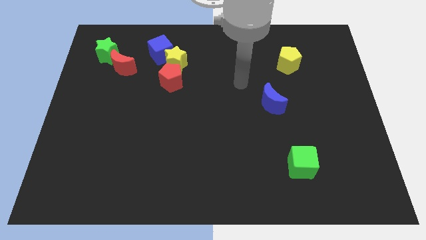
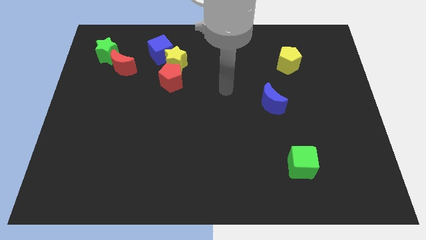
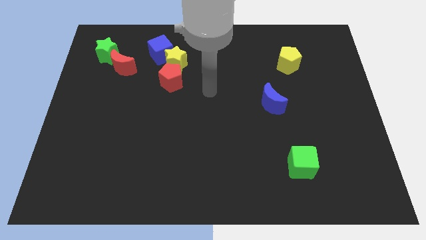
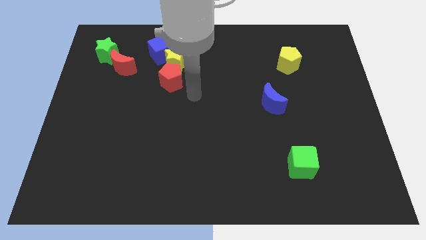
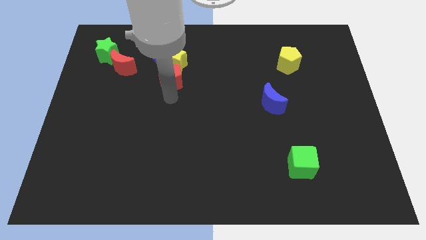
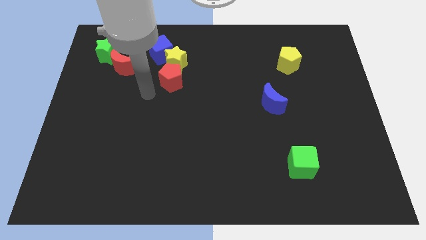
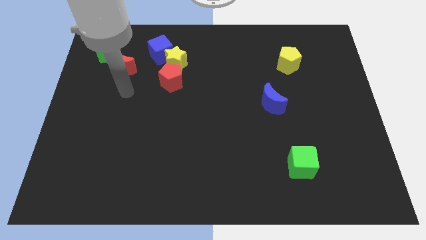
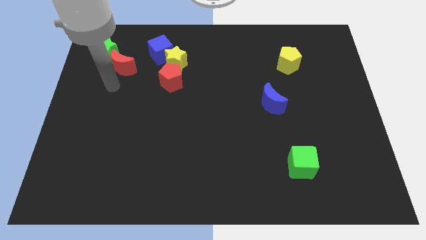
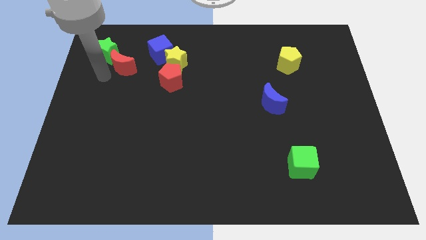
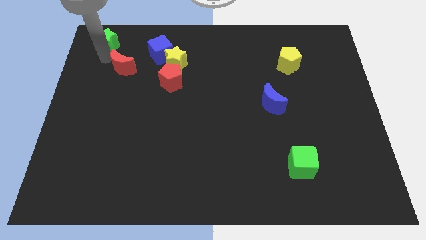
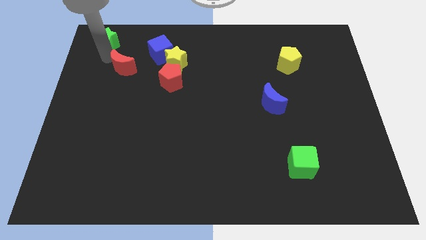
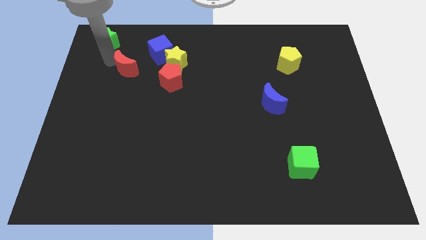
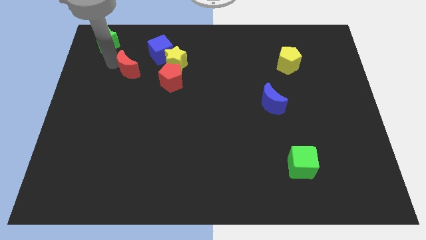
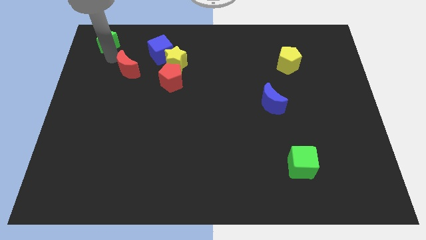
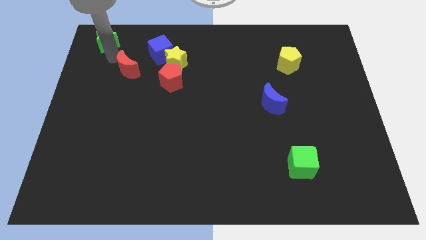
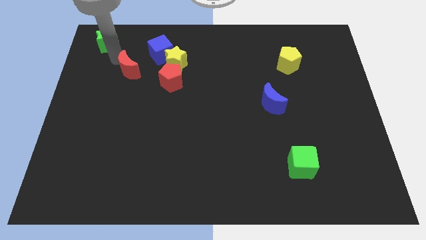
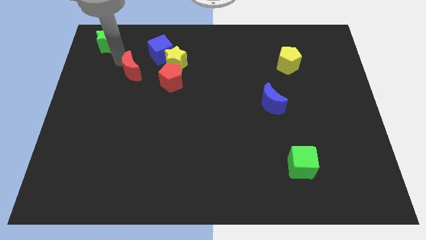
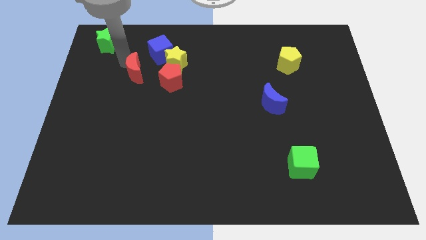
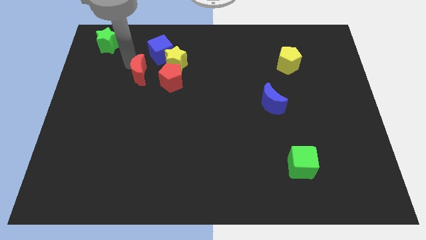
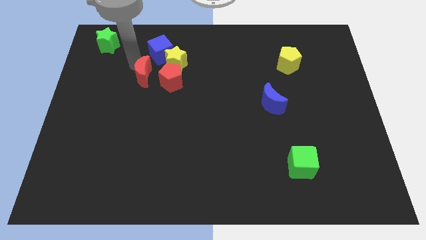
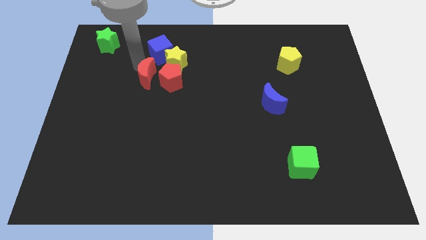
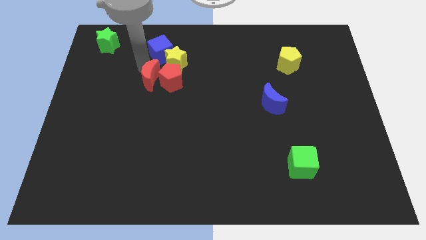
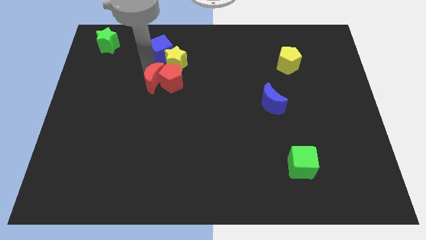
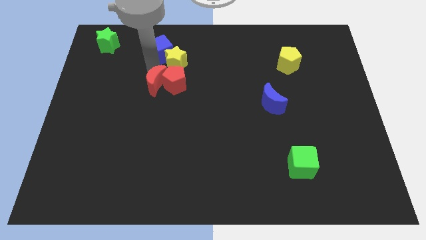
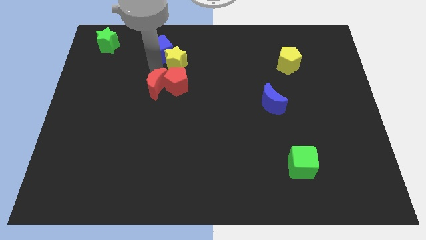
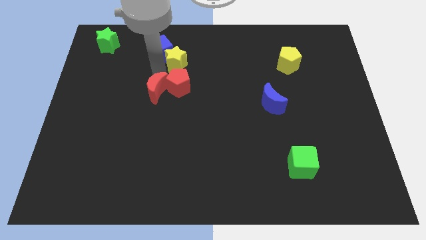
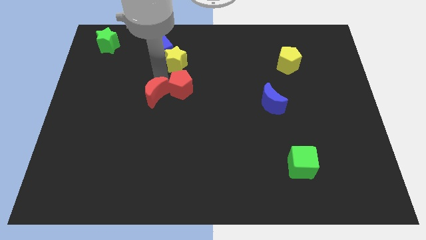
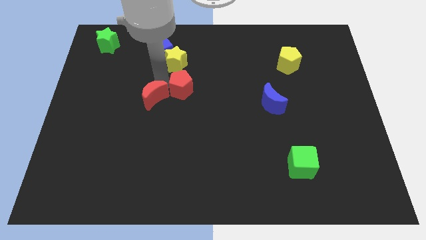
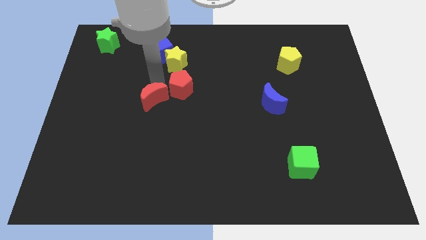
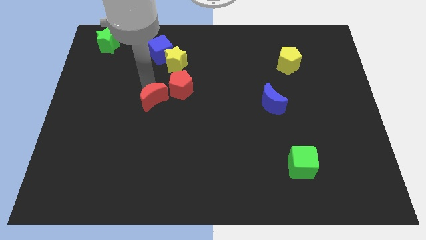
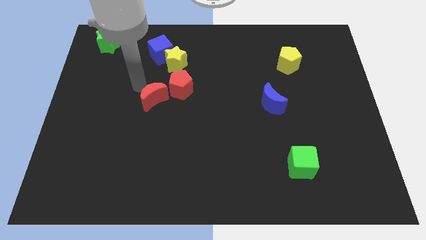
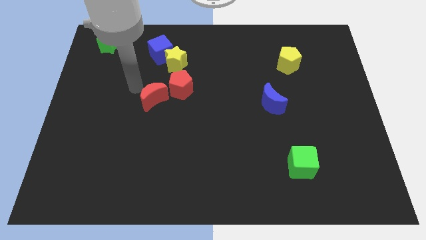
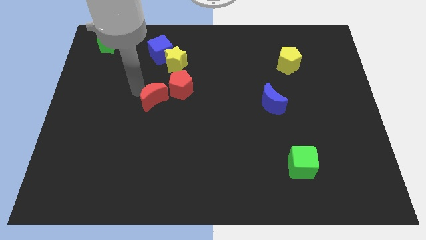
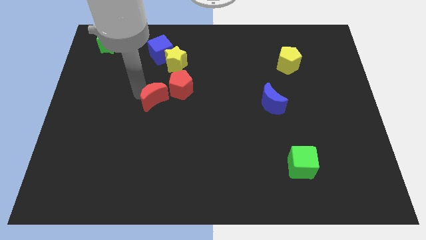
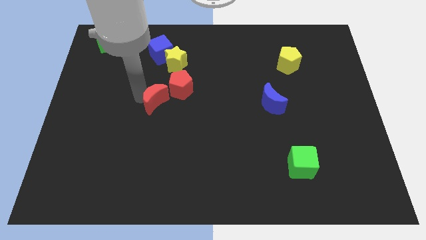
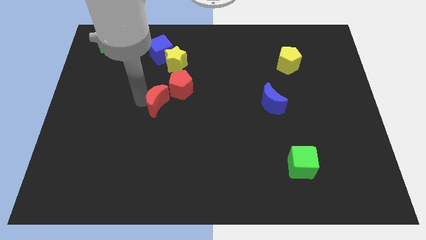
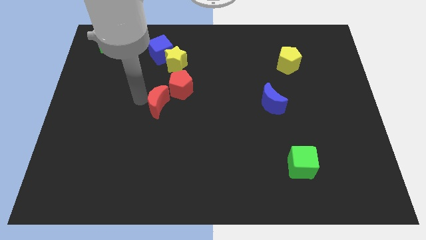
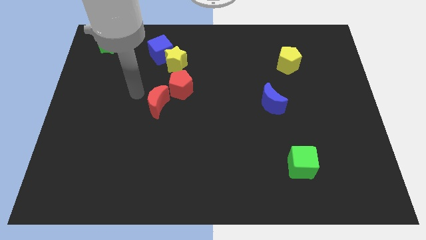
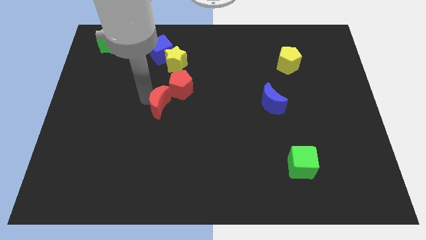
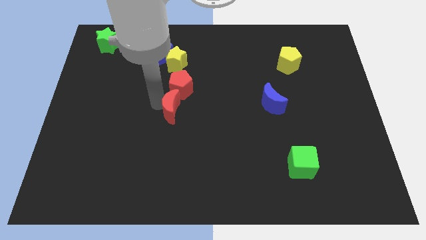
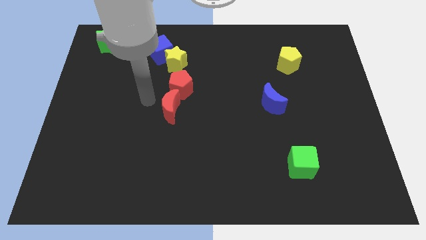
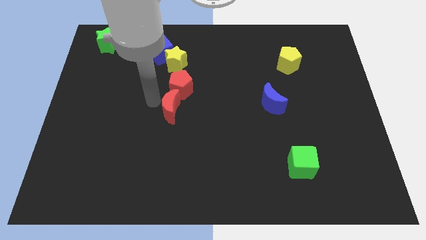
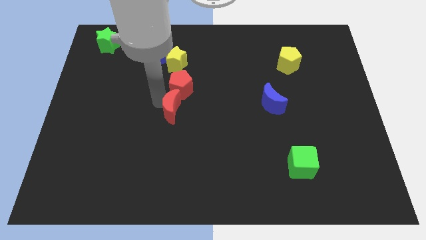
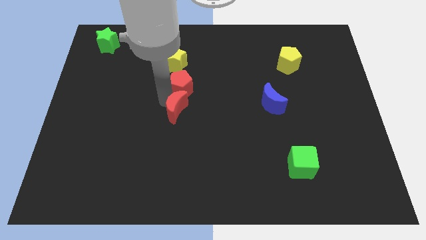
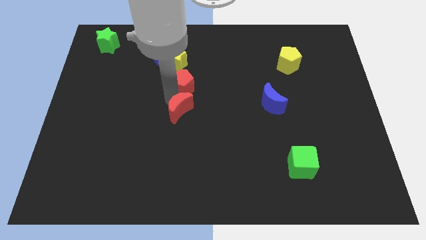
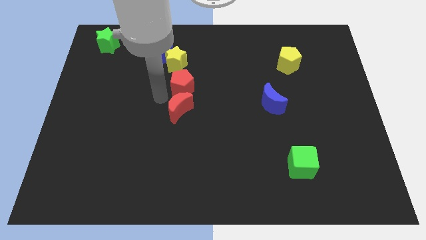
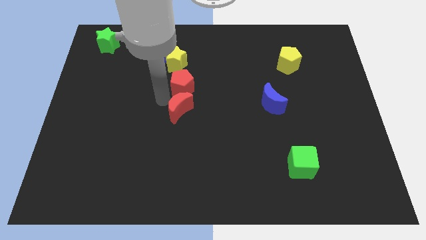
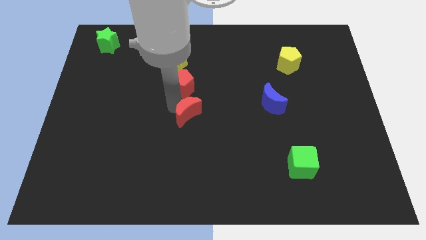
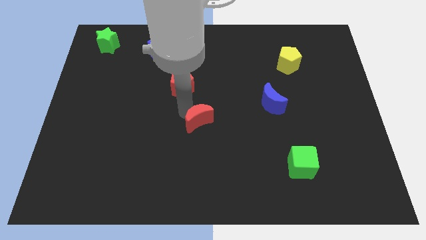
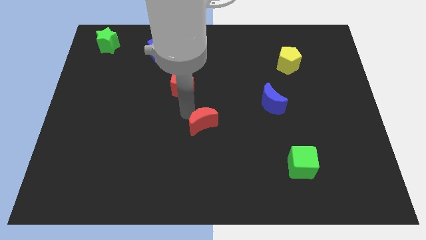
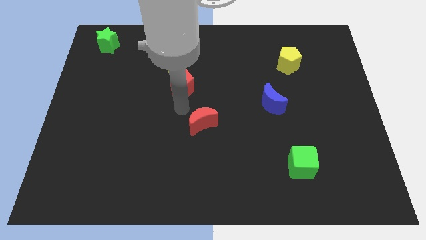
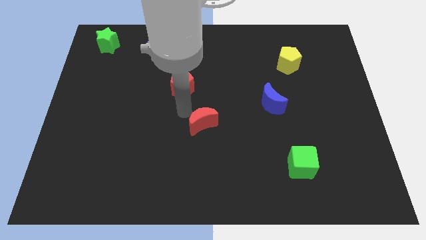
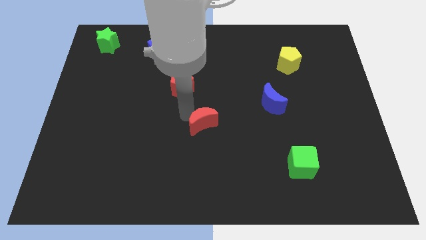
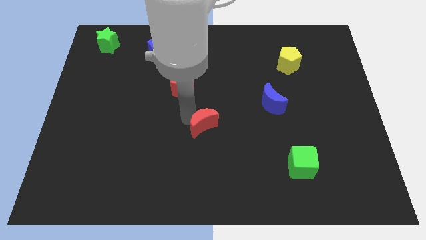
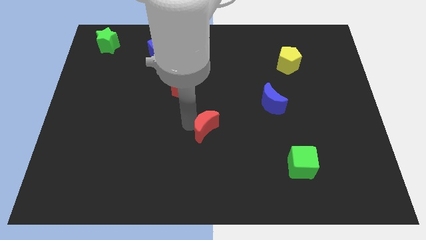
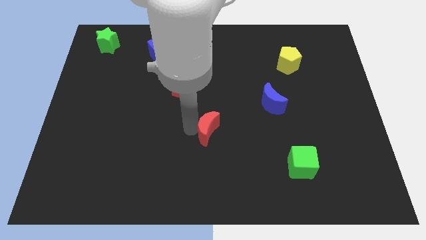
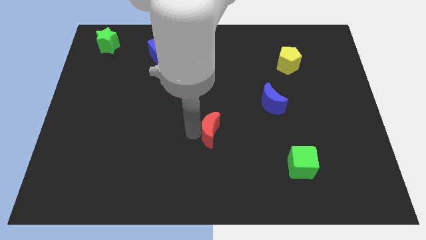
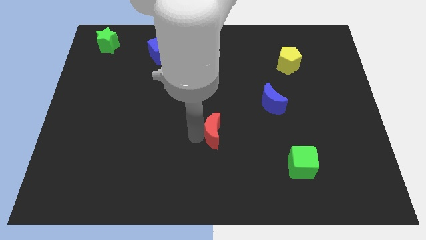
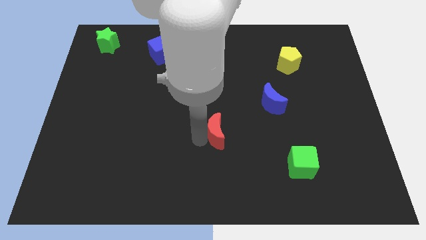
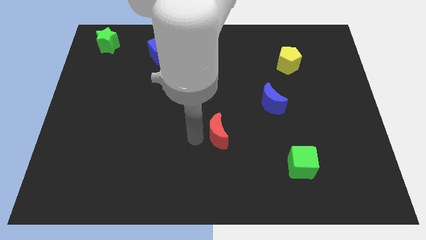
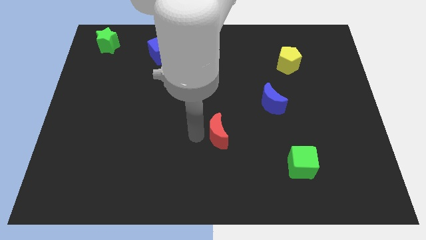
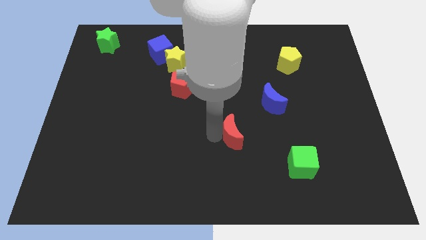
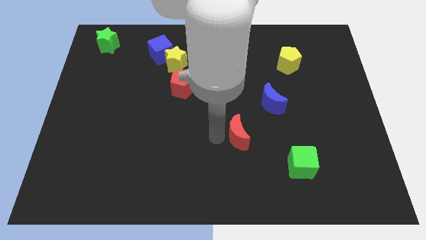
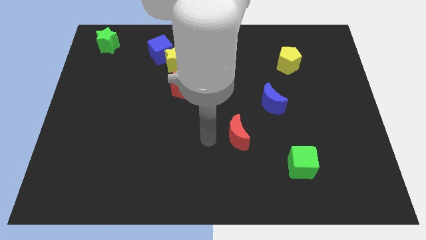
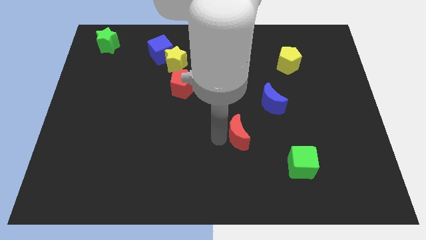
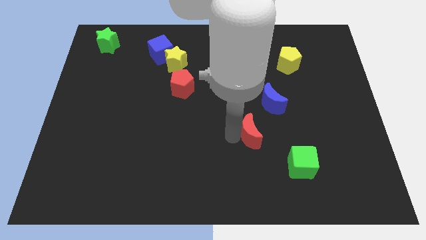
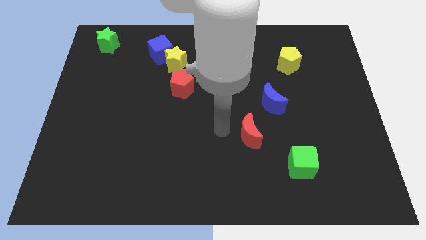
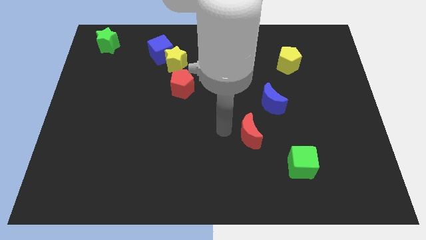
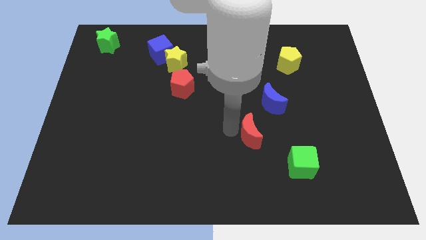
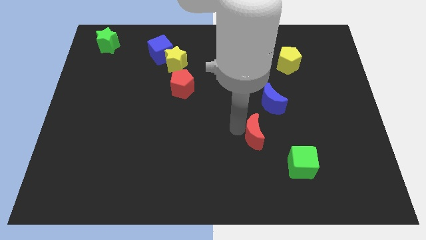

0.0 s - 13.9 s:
put the red moon below the blue moon
